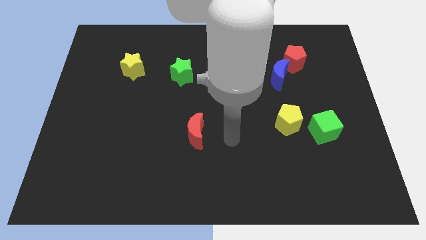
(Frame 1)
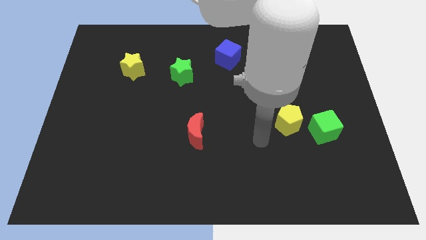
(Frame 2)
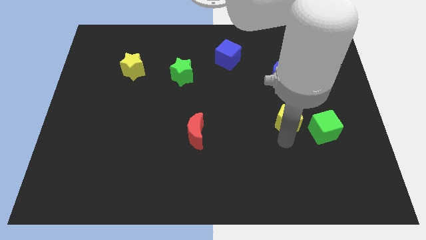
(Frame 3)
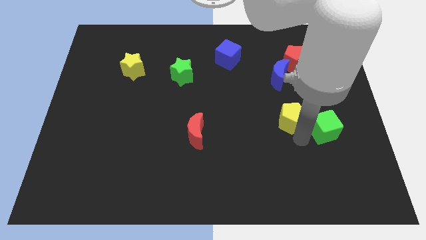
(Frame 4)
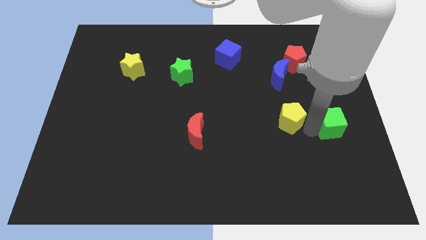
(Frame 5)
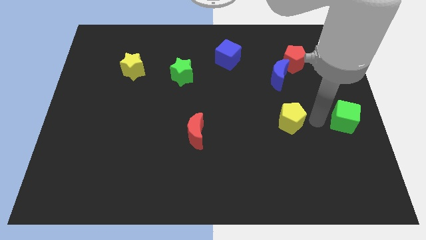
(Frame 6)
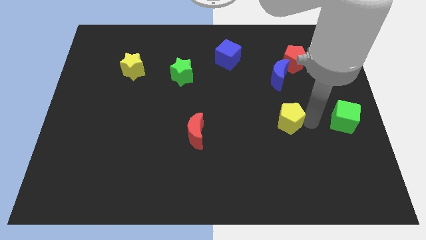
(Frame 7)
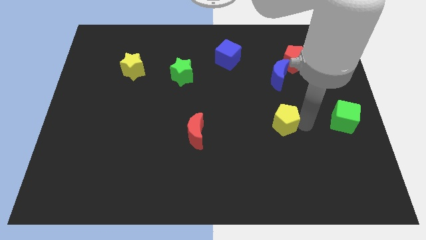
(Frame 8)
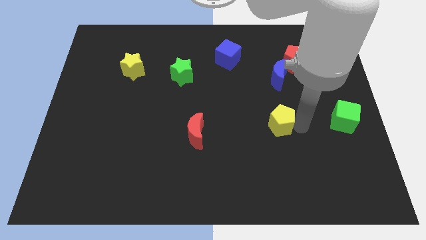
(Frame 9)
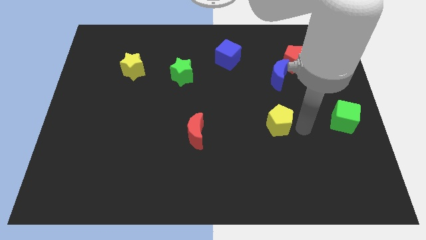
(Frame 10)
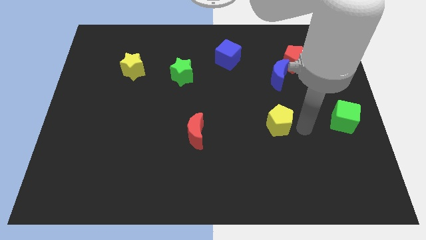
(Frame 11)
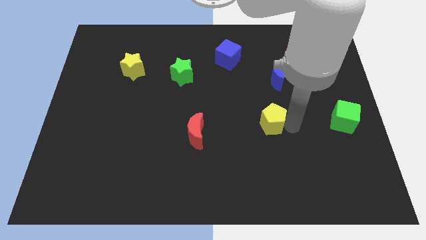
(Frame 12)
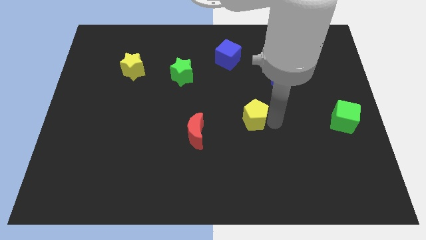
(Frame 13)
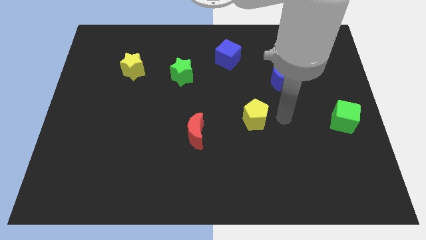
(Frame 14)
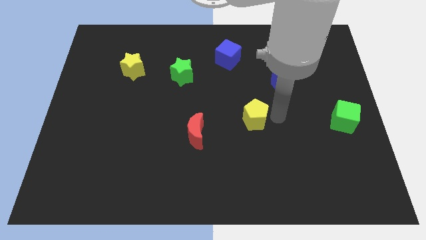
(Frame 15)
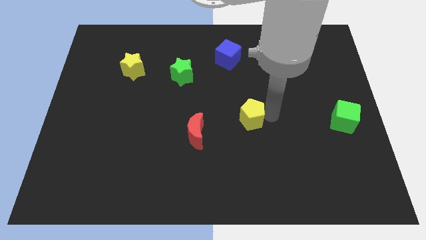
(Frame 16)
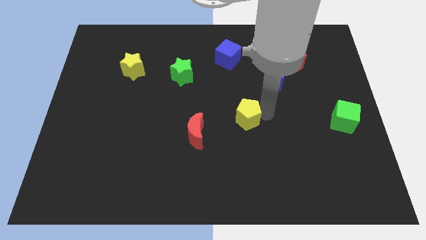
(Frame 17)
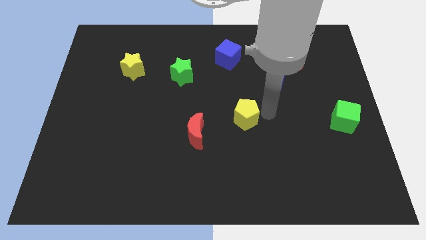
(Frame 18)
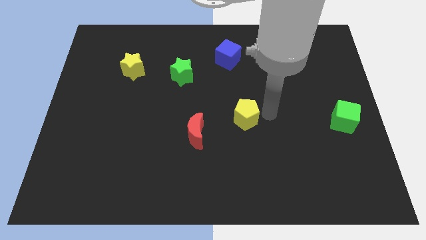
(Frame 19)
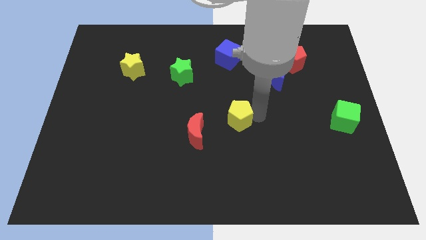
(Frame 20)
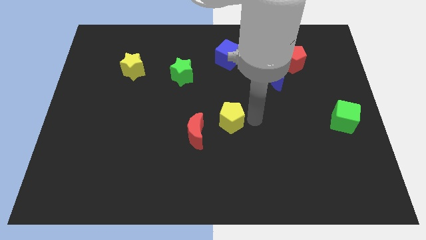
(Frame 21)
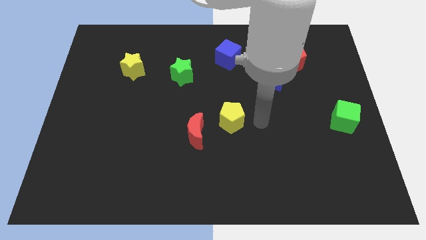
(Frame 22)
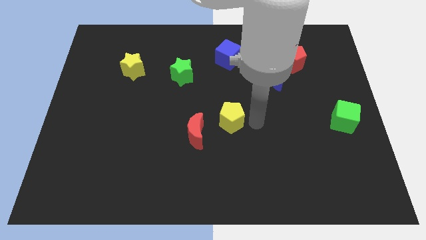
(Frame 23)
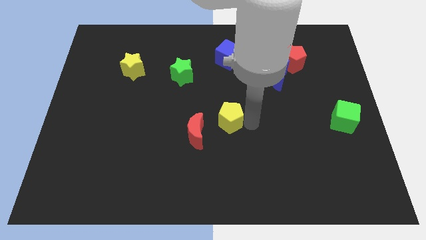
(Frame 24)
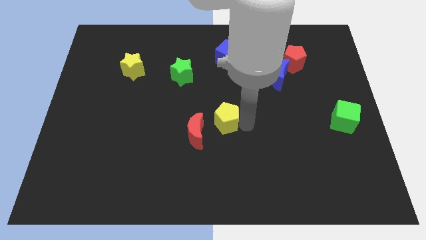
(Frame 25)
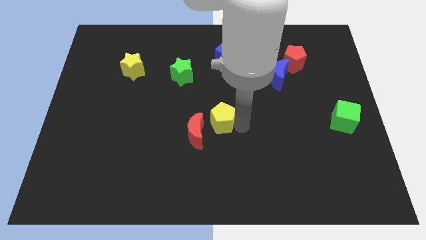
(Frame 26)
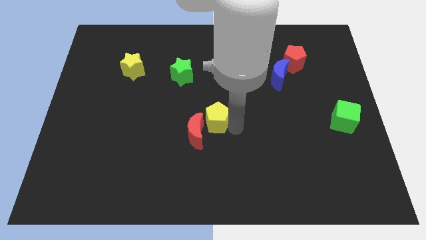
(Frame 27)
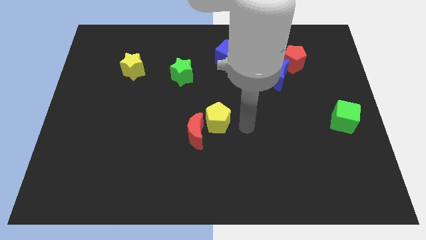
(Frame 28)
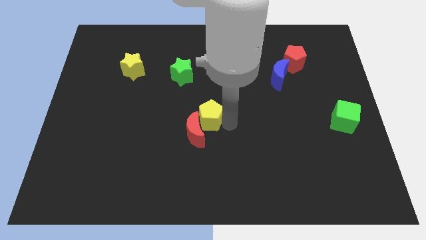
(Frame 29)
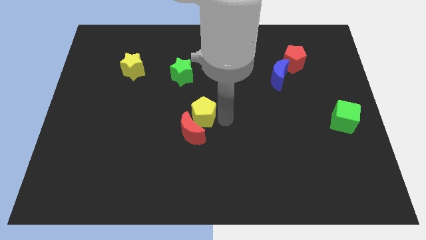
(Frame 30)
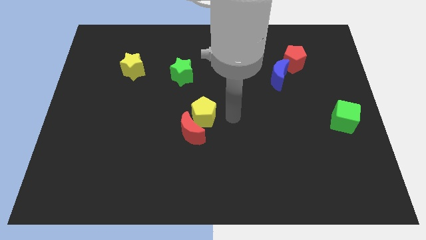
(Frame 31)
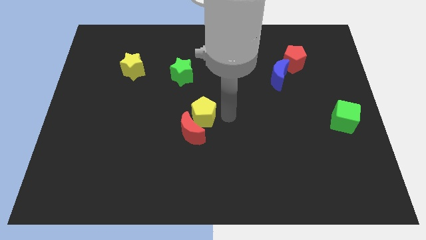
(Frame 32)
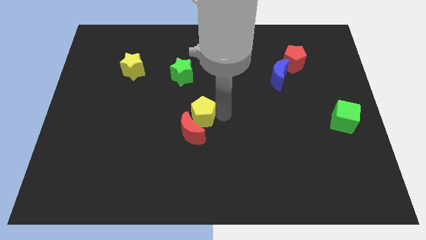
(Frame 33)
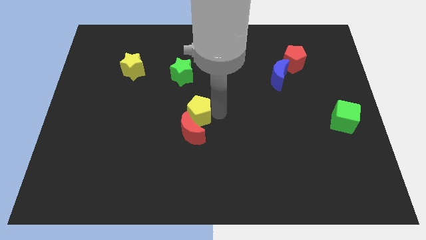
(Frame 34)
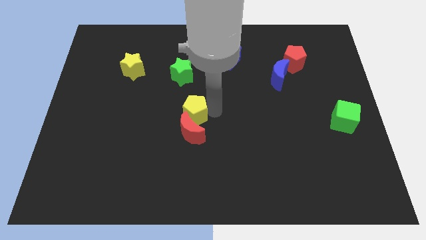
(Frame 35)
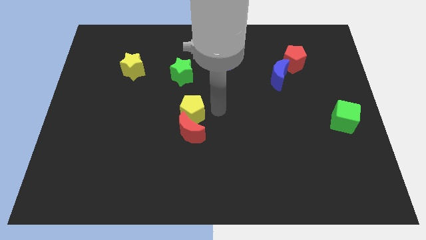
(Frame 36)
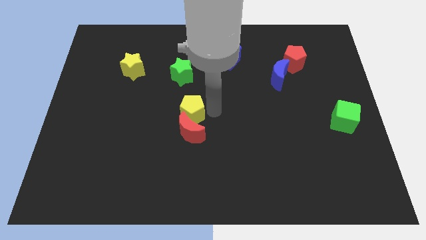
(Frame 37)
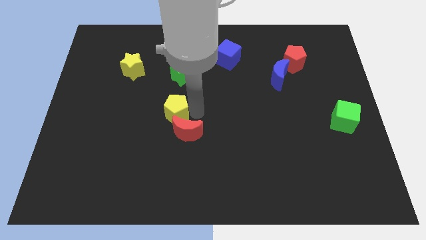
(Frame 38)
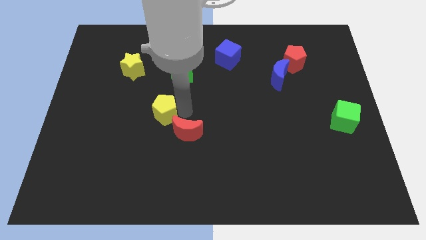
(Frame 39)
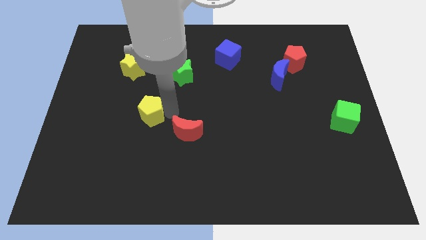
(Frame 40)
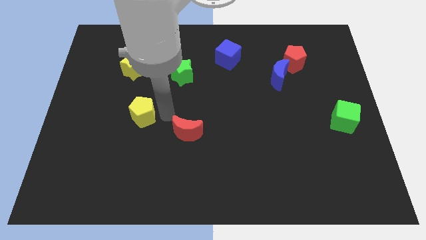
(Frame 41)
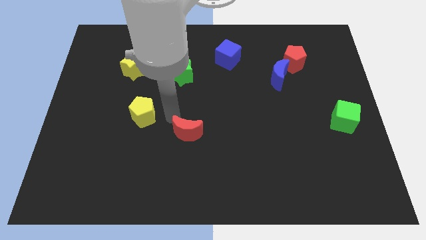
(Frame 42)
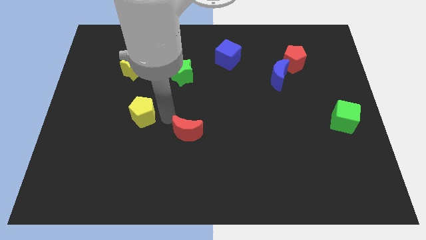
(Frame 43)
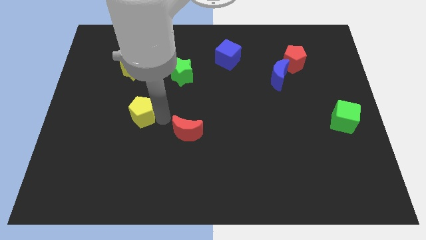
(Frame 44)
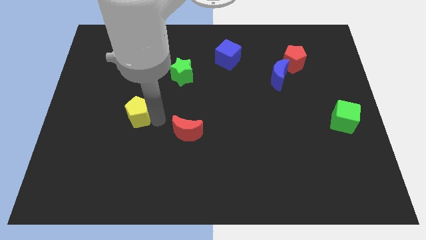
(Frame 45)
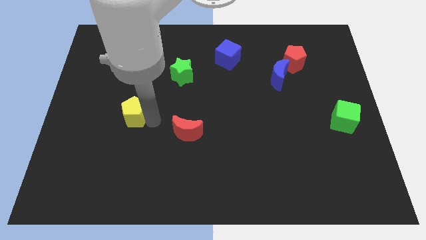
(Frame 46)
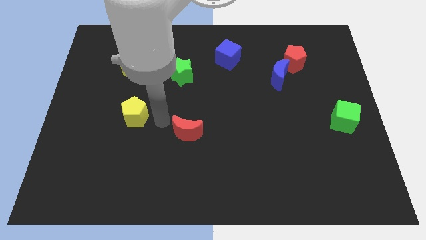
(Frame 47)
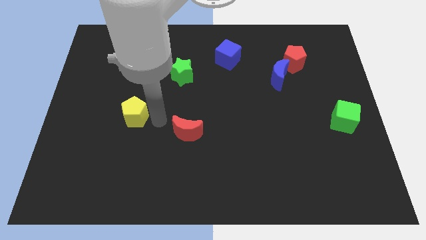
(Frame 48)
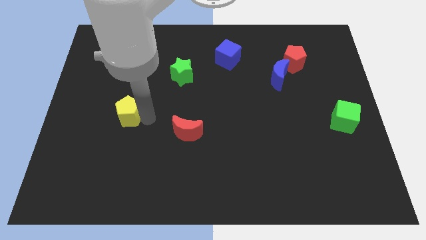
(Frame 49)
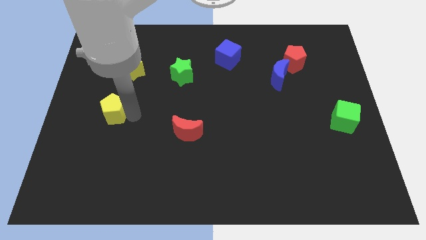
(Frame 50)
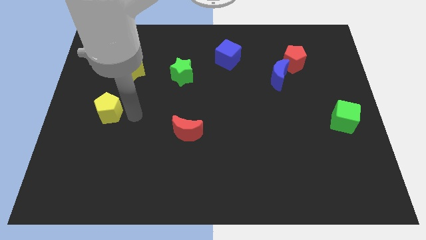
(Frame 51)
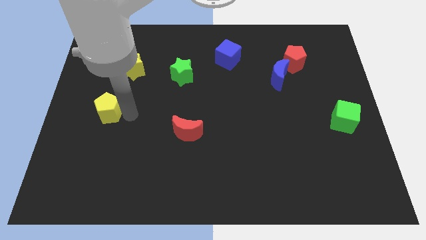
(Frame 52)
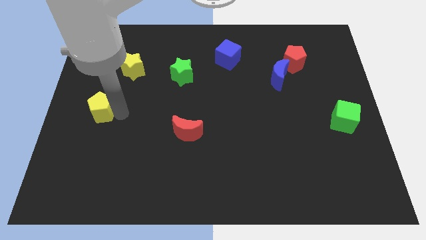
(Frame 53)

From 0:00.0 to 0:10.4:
push the yellow pentagon to the center left

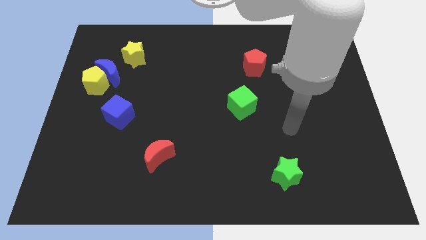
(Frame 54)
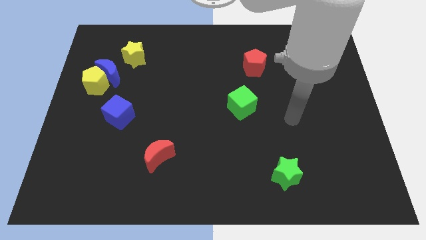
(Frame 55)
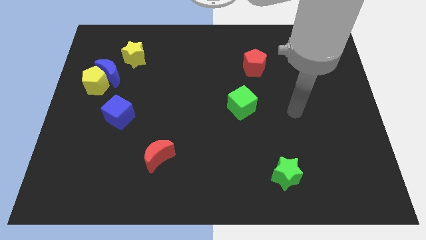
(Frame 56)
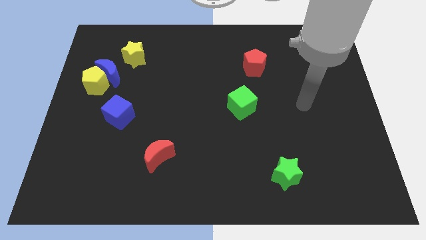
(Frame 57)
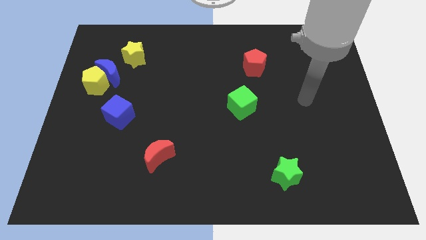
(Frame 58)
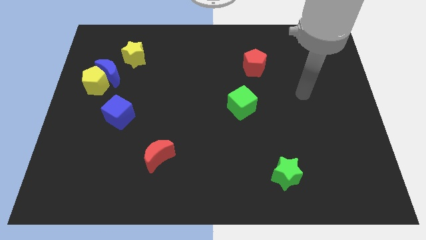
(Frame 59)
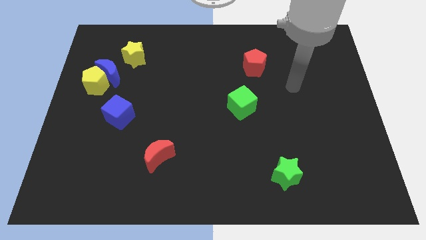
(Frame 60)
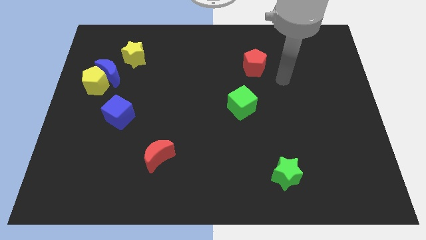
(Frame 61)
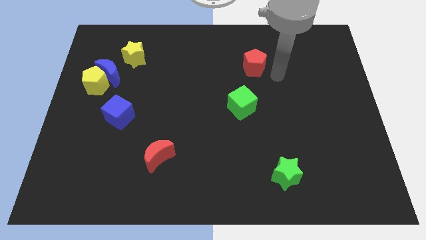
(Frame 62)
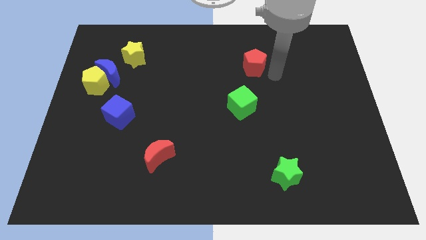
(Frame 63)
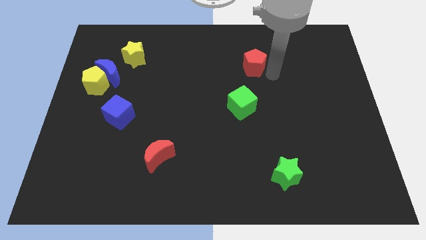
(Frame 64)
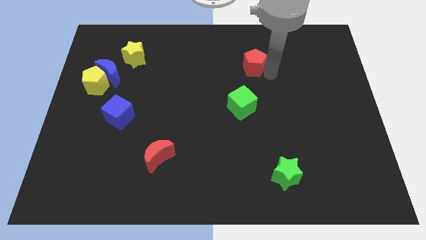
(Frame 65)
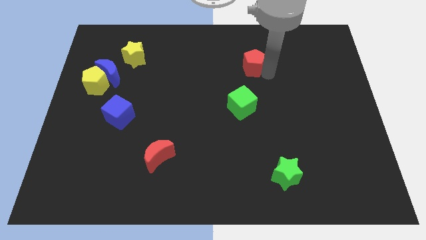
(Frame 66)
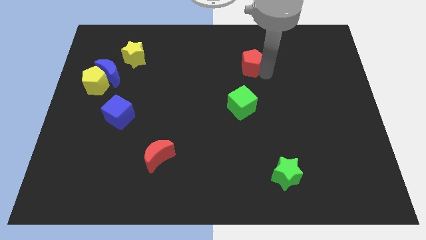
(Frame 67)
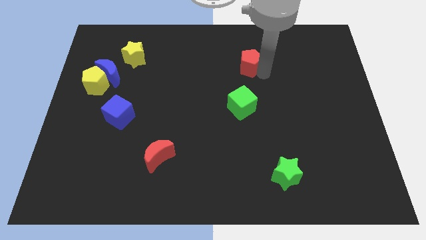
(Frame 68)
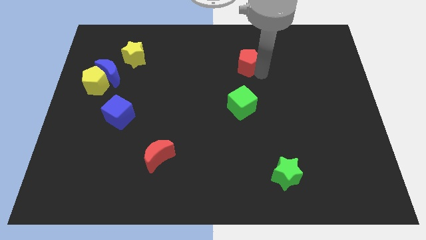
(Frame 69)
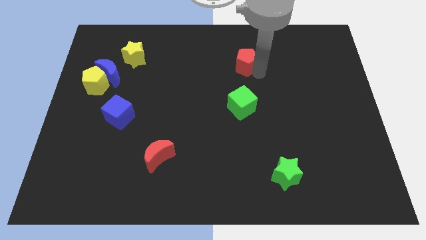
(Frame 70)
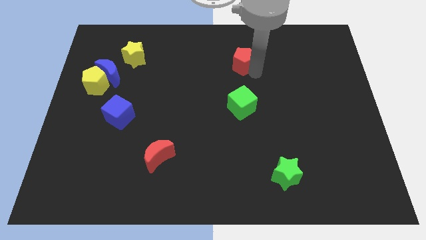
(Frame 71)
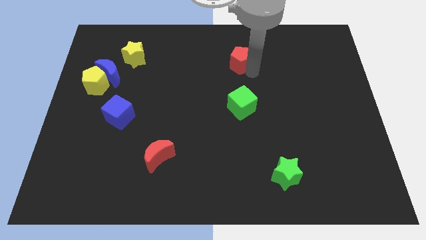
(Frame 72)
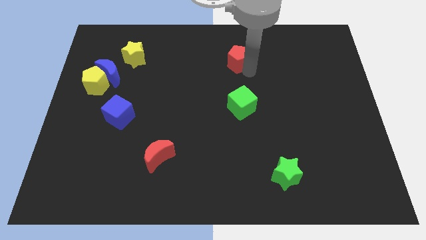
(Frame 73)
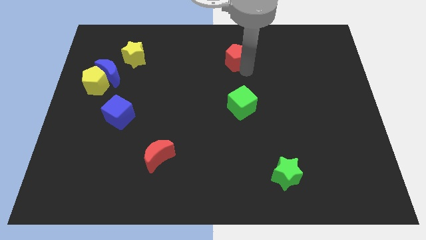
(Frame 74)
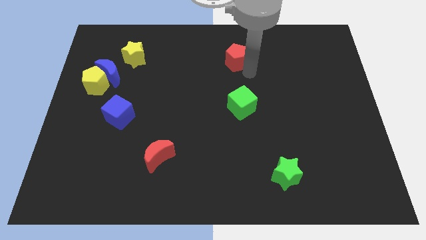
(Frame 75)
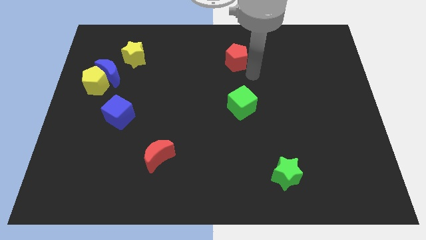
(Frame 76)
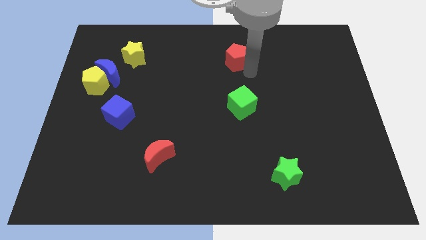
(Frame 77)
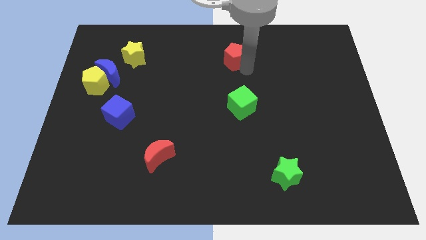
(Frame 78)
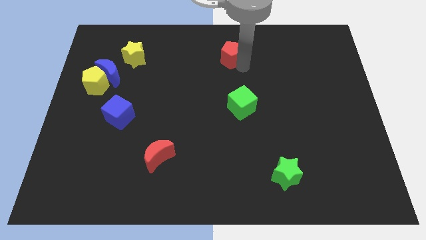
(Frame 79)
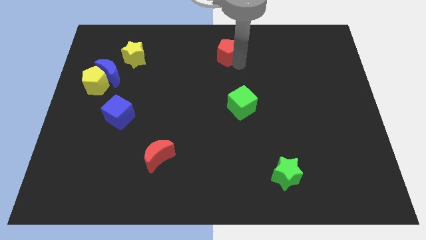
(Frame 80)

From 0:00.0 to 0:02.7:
push the red pentagon to the towards your base
